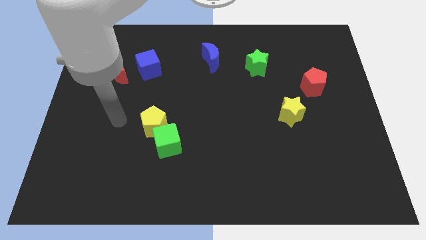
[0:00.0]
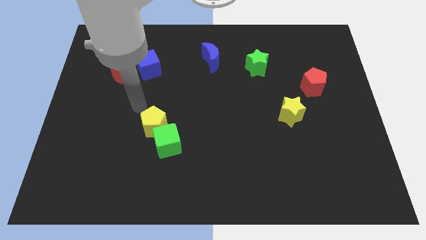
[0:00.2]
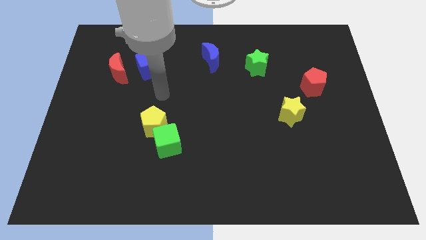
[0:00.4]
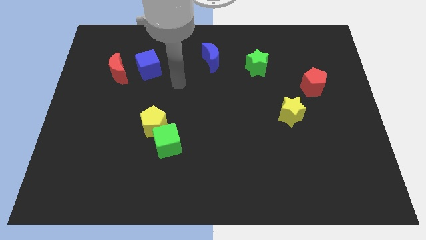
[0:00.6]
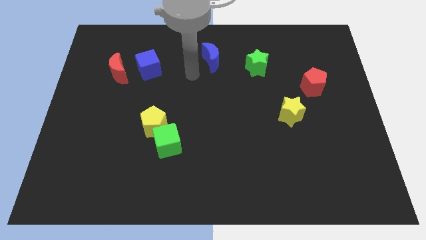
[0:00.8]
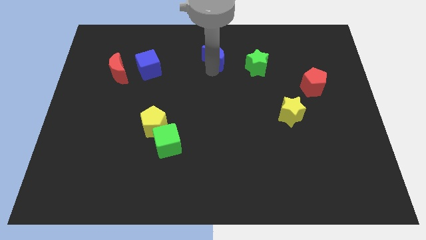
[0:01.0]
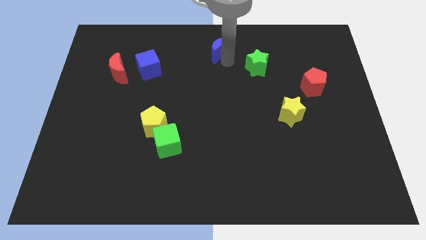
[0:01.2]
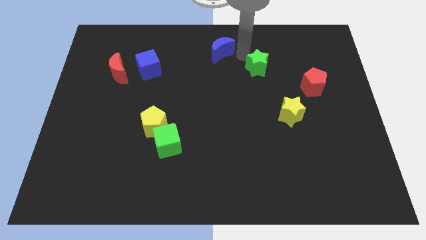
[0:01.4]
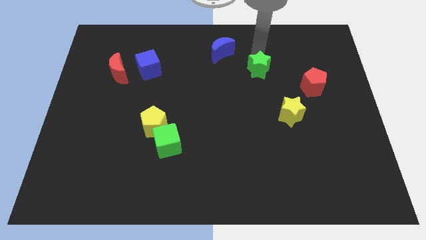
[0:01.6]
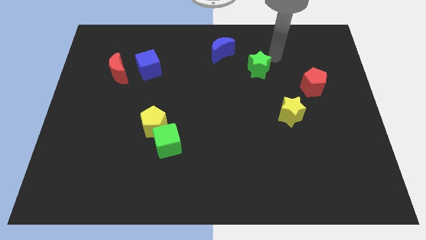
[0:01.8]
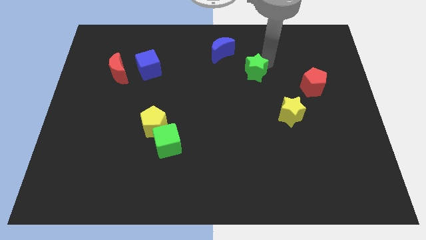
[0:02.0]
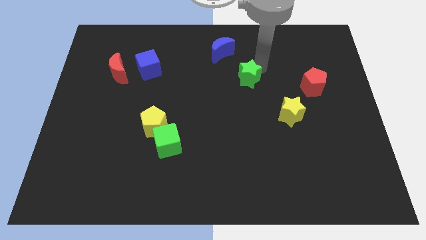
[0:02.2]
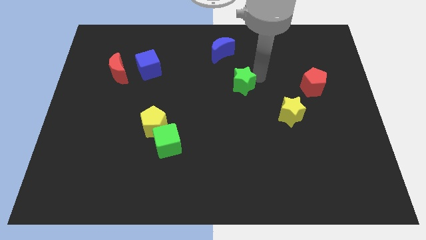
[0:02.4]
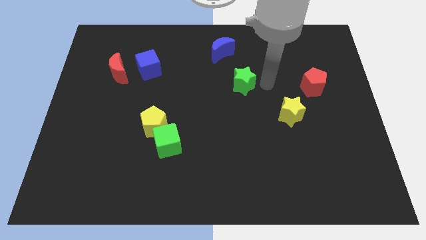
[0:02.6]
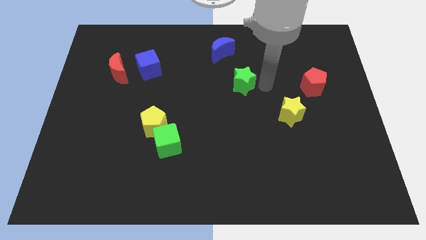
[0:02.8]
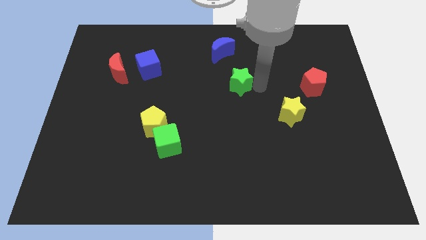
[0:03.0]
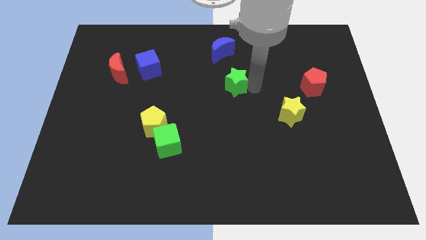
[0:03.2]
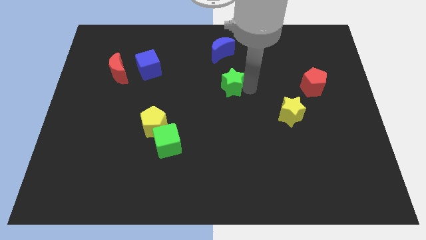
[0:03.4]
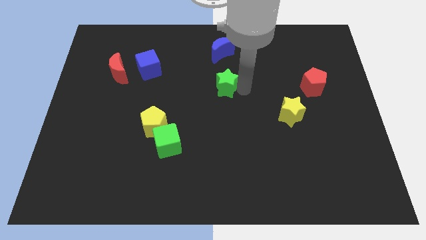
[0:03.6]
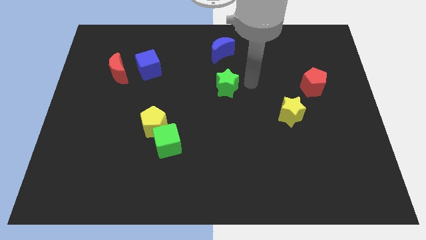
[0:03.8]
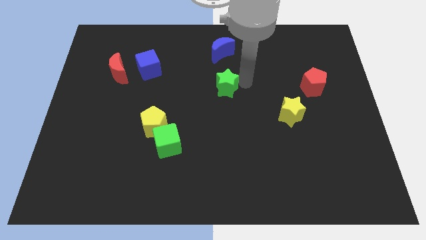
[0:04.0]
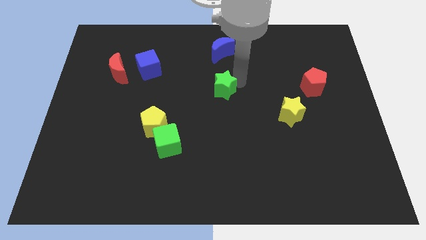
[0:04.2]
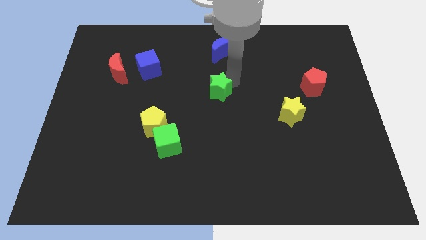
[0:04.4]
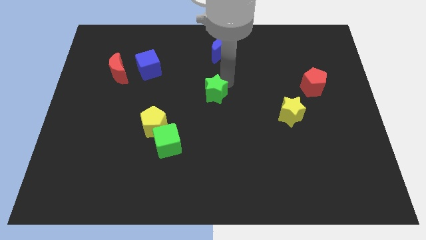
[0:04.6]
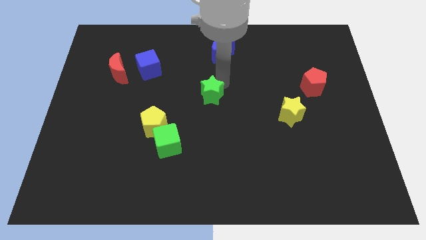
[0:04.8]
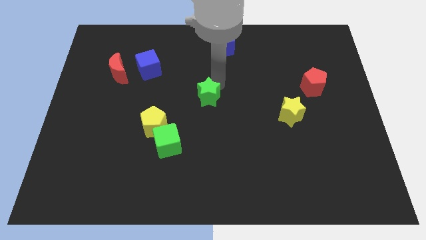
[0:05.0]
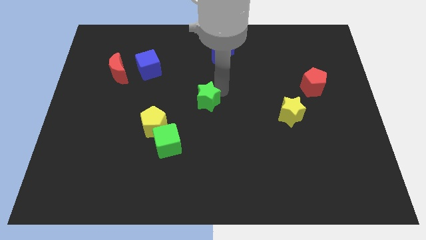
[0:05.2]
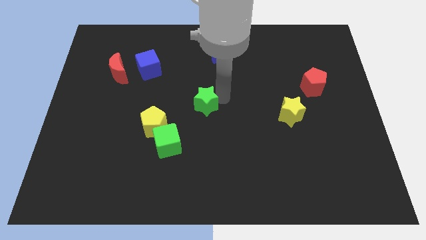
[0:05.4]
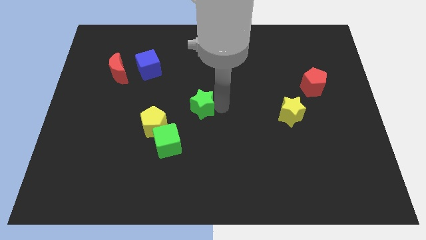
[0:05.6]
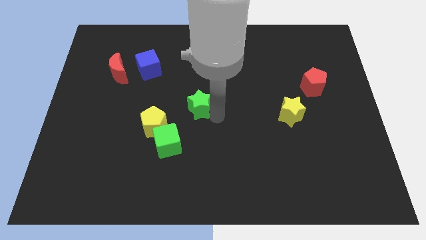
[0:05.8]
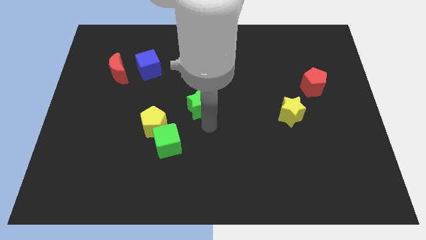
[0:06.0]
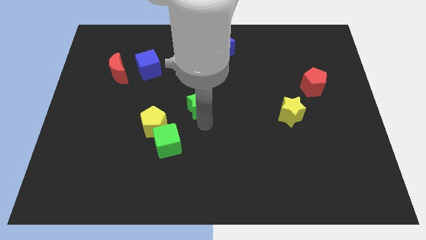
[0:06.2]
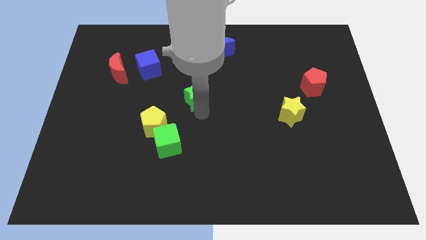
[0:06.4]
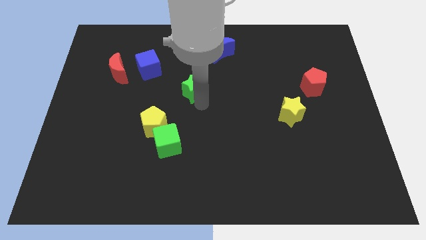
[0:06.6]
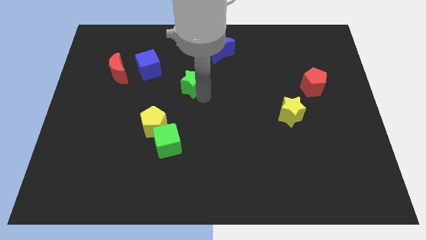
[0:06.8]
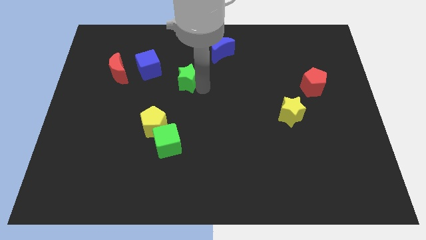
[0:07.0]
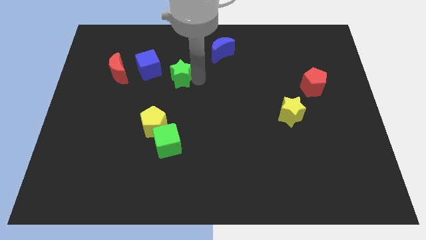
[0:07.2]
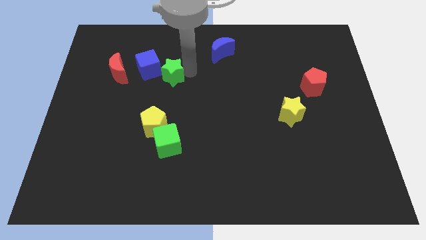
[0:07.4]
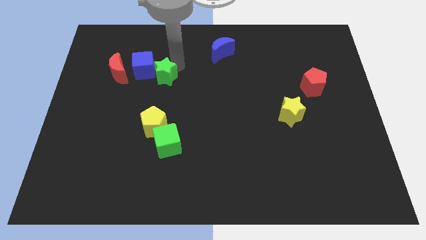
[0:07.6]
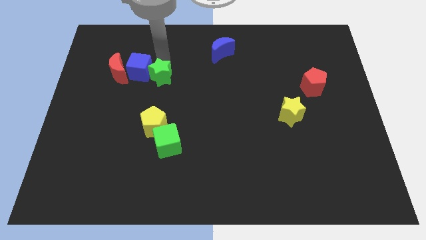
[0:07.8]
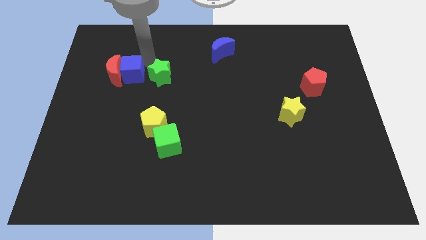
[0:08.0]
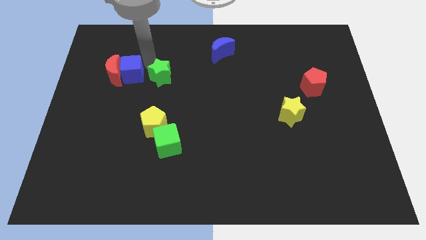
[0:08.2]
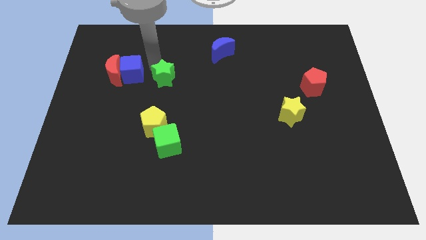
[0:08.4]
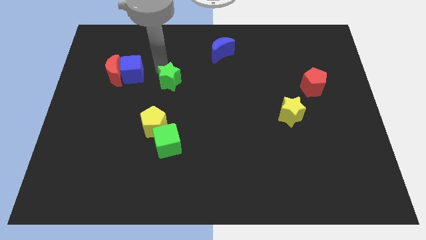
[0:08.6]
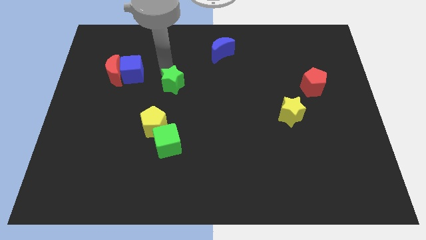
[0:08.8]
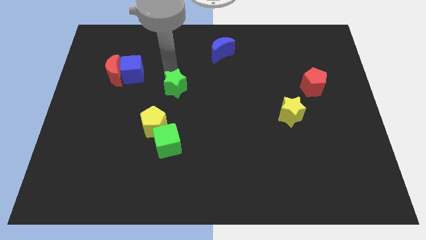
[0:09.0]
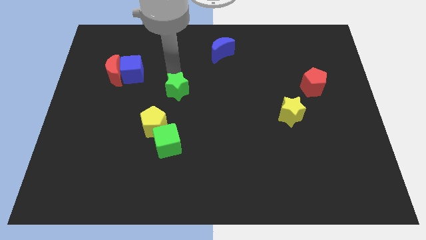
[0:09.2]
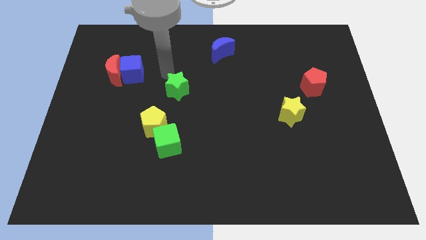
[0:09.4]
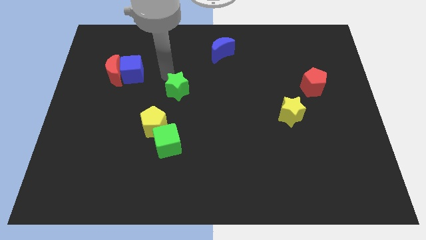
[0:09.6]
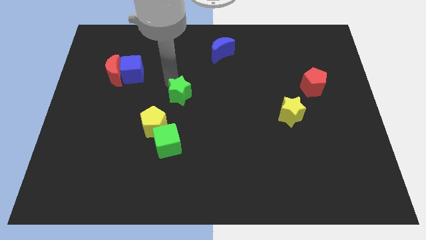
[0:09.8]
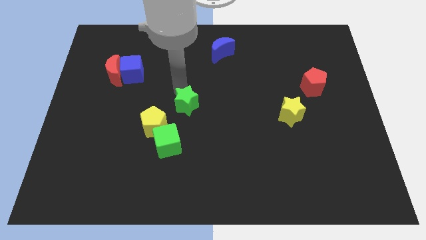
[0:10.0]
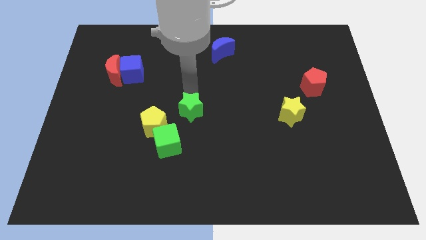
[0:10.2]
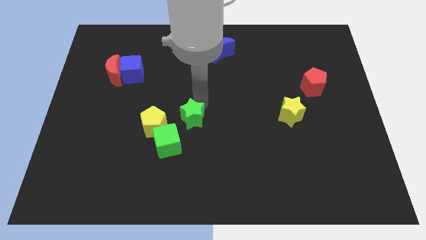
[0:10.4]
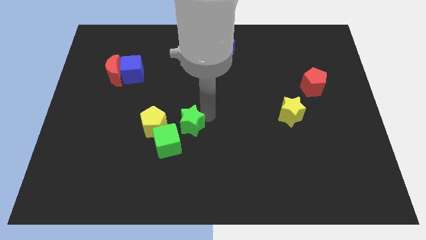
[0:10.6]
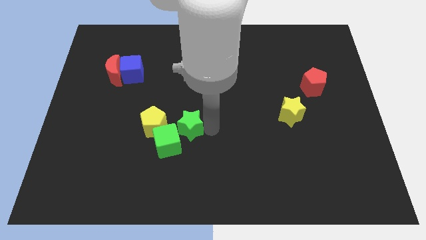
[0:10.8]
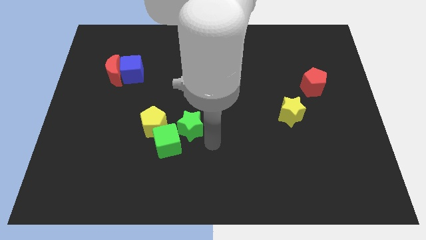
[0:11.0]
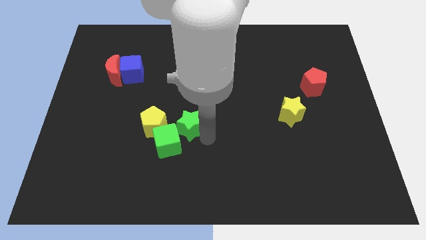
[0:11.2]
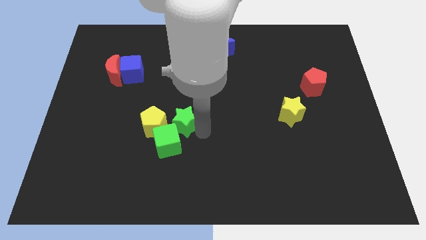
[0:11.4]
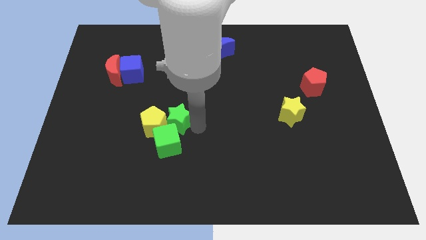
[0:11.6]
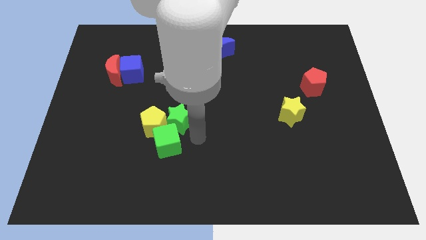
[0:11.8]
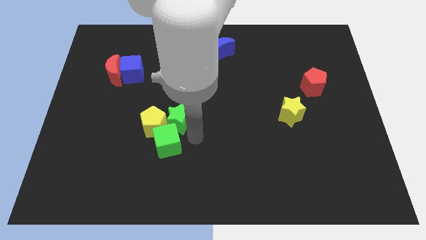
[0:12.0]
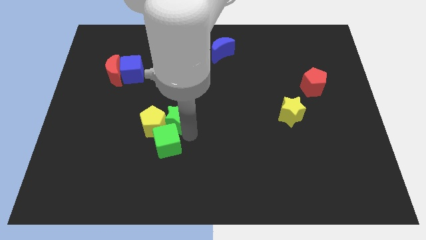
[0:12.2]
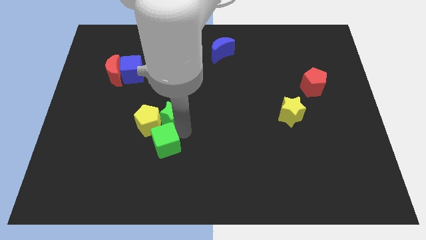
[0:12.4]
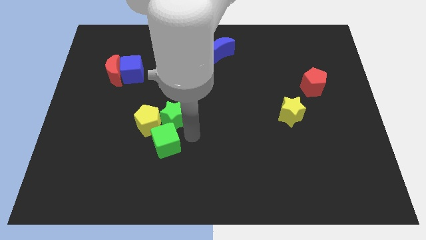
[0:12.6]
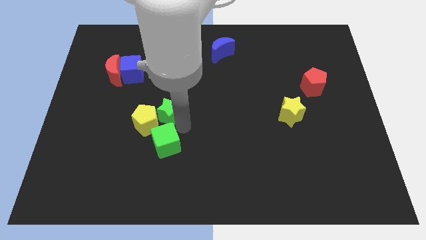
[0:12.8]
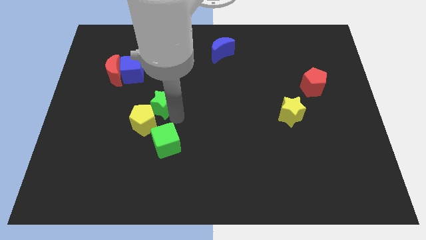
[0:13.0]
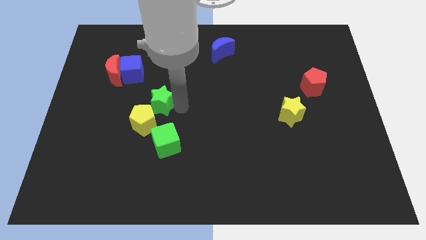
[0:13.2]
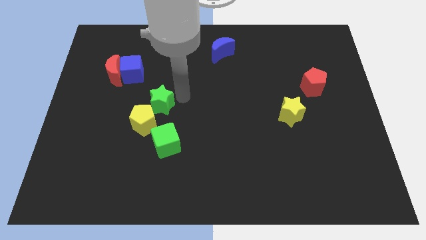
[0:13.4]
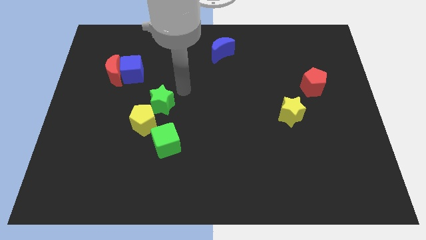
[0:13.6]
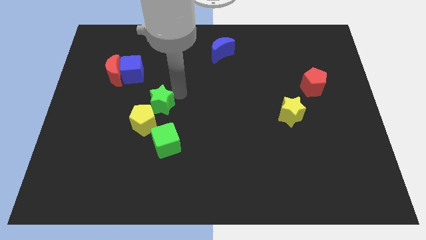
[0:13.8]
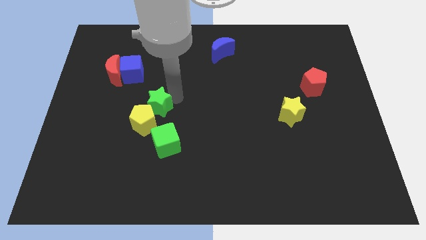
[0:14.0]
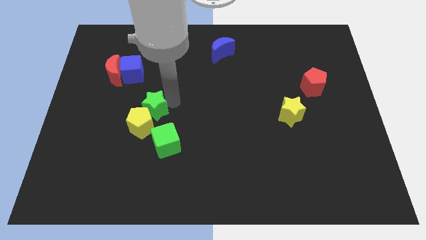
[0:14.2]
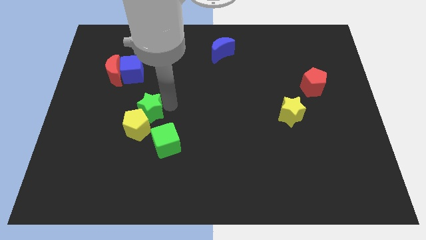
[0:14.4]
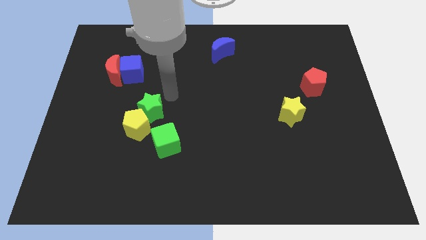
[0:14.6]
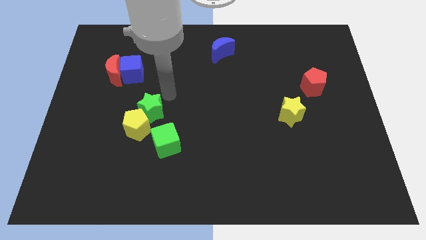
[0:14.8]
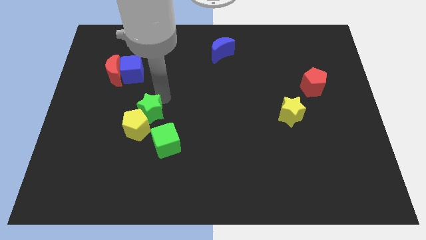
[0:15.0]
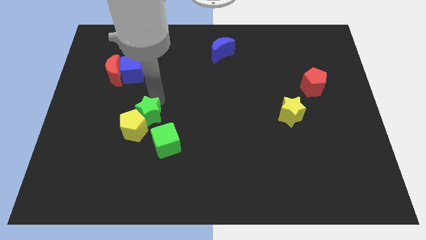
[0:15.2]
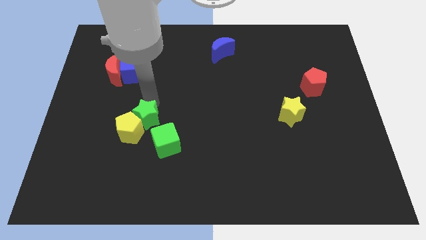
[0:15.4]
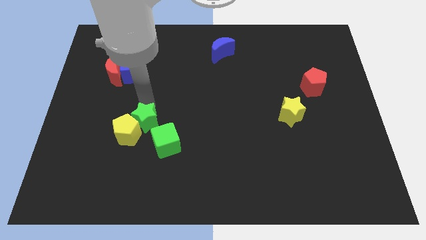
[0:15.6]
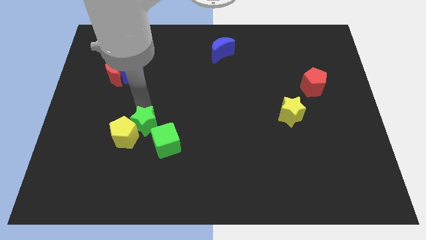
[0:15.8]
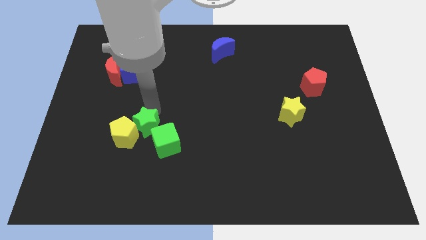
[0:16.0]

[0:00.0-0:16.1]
move the green star to the left side of the green cube
